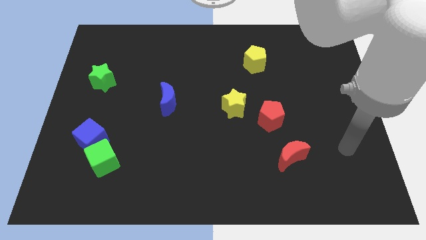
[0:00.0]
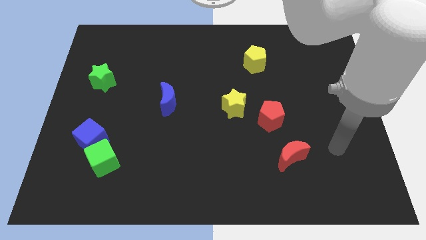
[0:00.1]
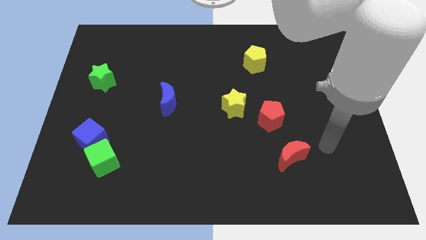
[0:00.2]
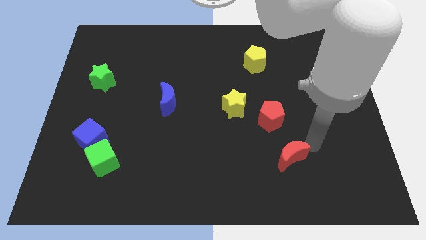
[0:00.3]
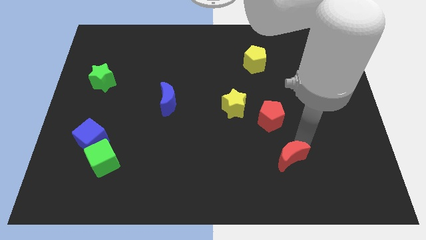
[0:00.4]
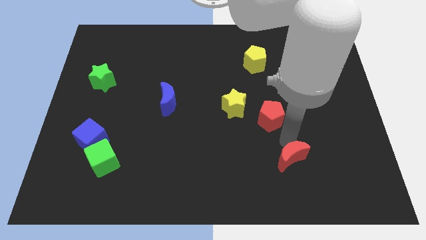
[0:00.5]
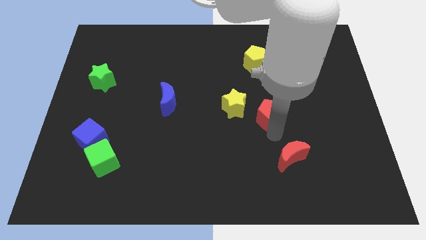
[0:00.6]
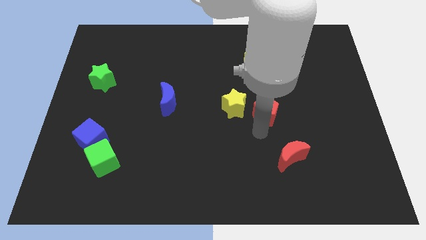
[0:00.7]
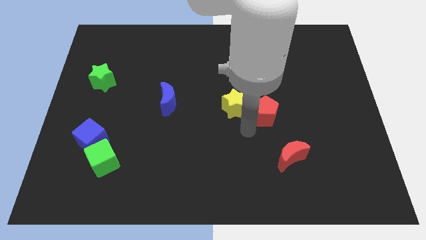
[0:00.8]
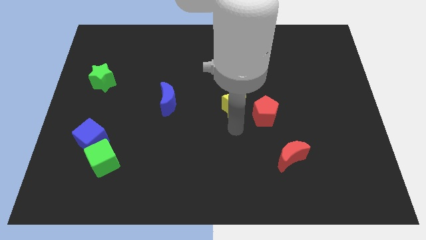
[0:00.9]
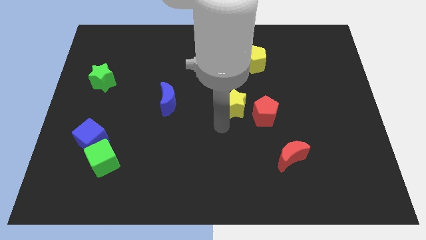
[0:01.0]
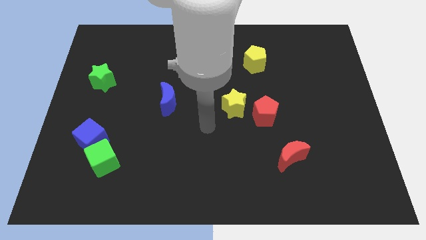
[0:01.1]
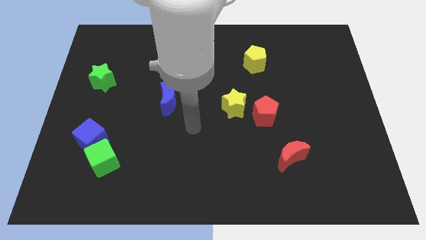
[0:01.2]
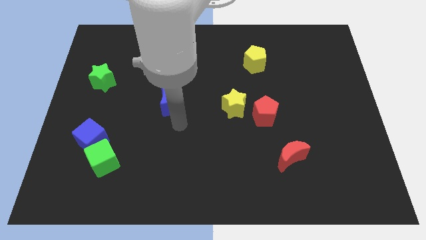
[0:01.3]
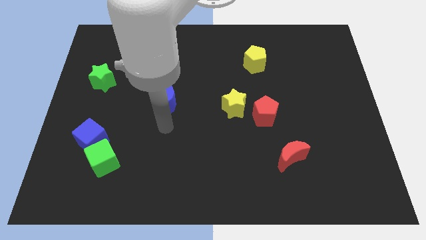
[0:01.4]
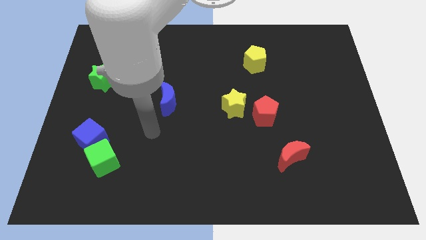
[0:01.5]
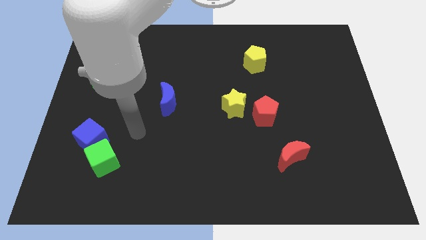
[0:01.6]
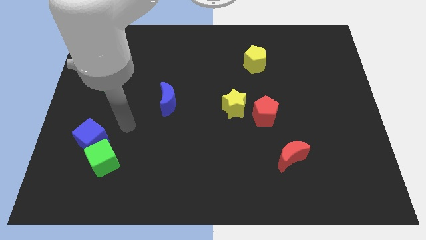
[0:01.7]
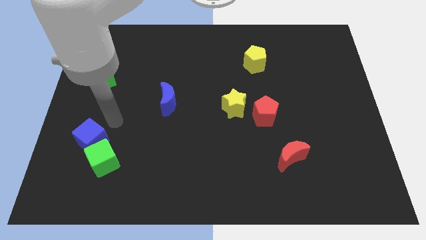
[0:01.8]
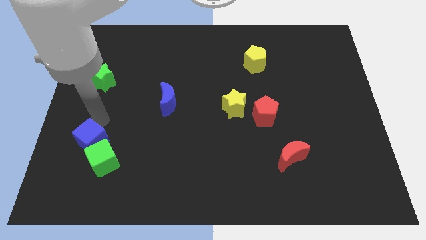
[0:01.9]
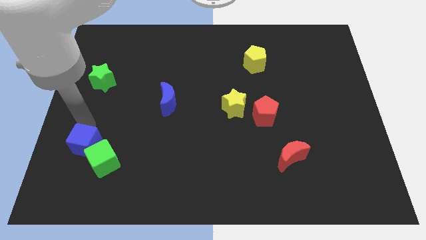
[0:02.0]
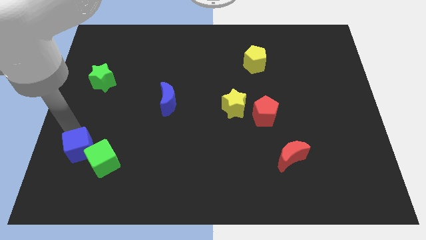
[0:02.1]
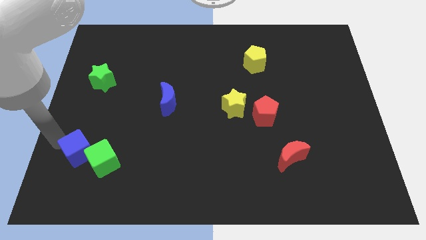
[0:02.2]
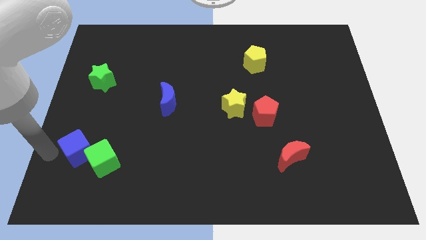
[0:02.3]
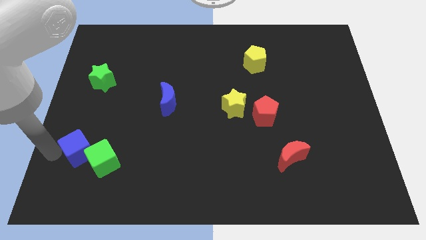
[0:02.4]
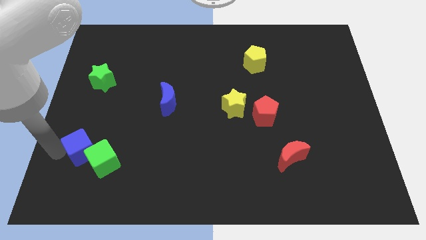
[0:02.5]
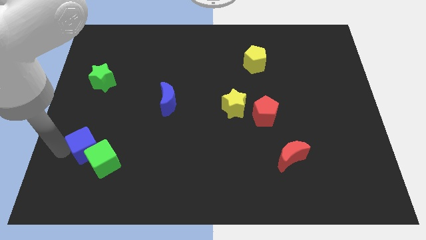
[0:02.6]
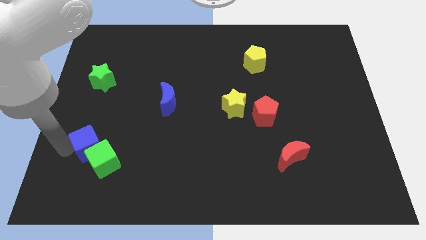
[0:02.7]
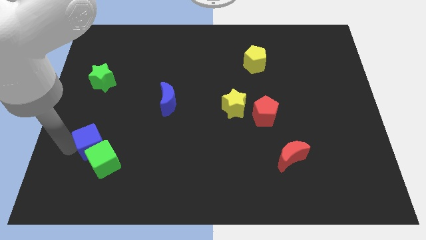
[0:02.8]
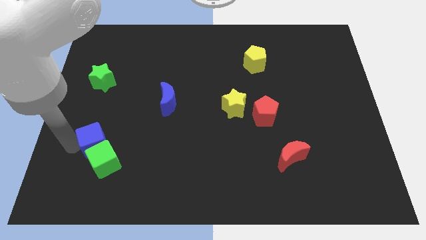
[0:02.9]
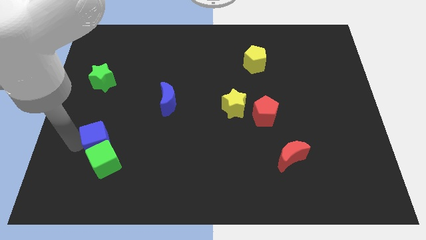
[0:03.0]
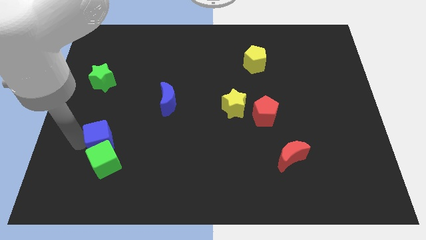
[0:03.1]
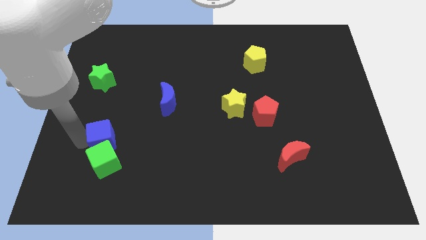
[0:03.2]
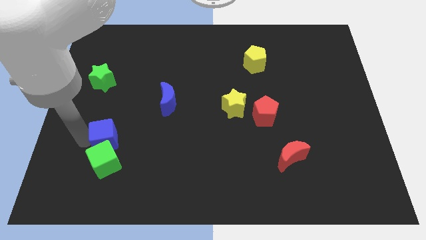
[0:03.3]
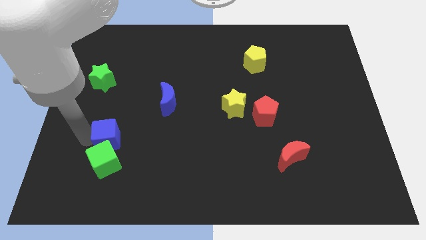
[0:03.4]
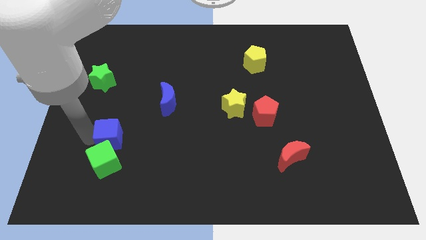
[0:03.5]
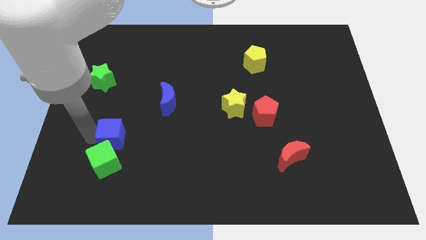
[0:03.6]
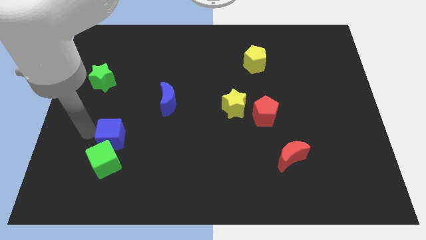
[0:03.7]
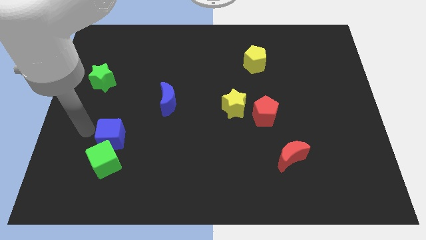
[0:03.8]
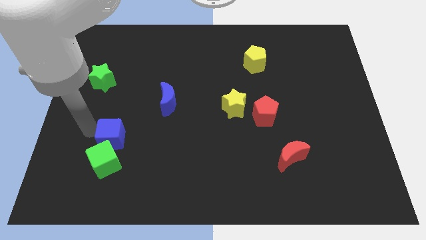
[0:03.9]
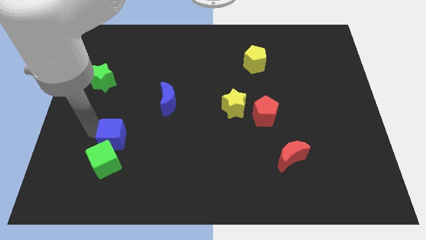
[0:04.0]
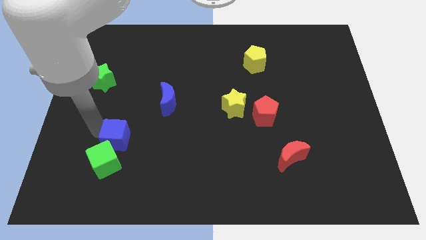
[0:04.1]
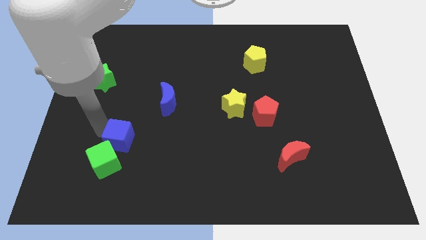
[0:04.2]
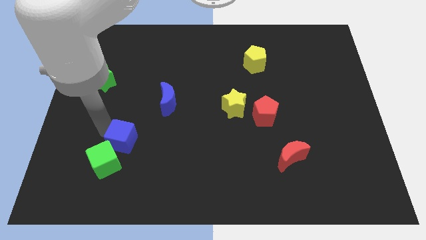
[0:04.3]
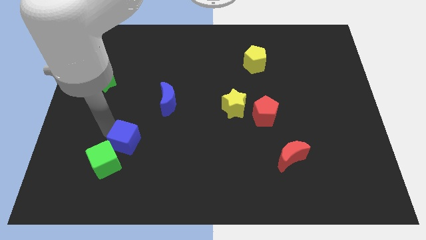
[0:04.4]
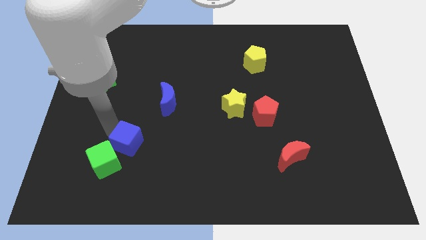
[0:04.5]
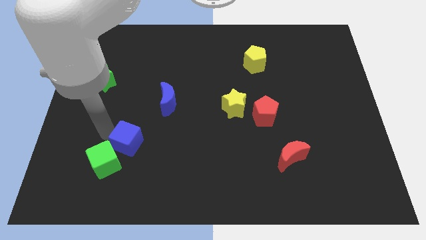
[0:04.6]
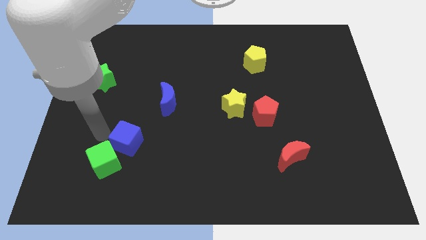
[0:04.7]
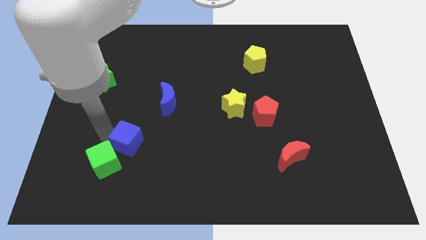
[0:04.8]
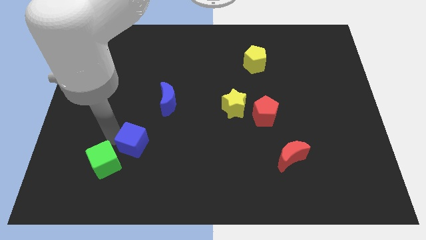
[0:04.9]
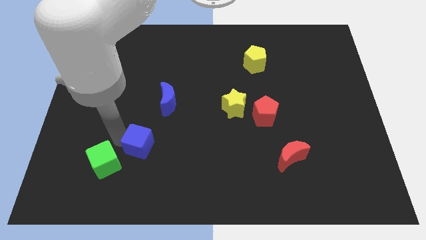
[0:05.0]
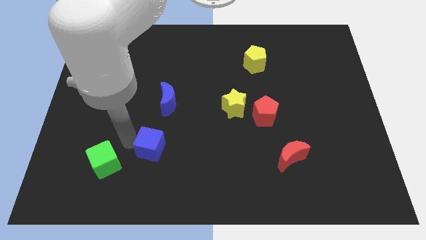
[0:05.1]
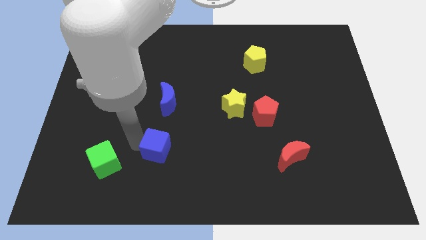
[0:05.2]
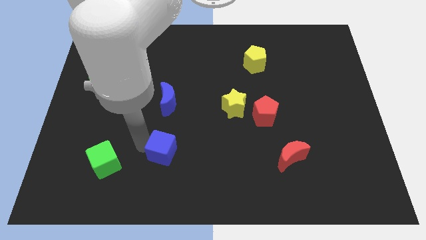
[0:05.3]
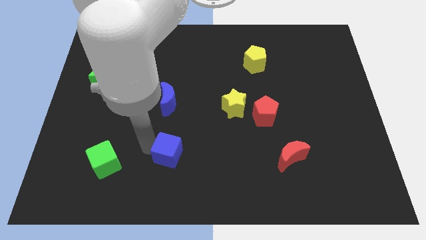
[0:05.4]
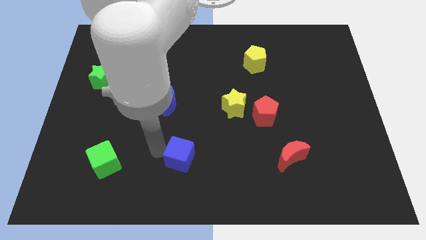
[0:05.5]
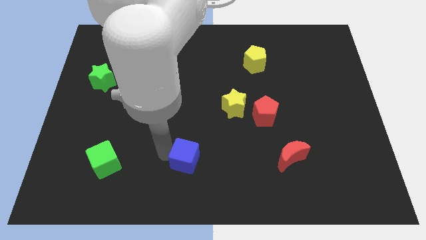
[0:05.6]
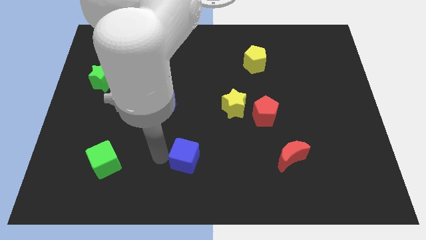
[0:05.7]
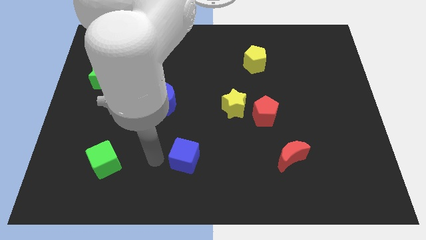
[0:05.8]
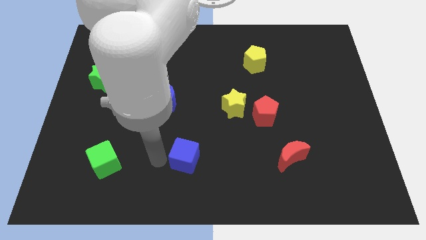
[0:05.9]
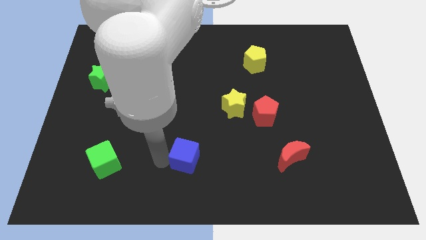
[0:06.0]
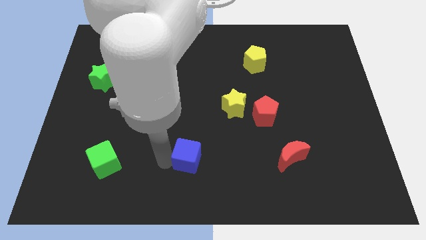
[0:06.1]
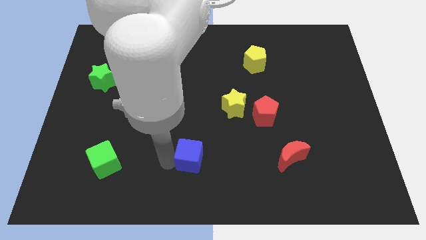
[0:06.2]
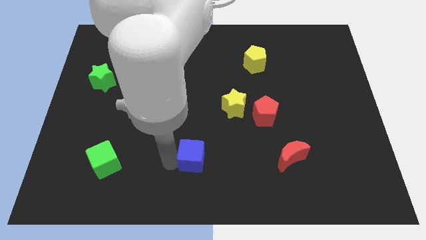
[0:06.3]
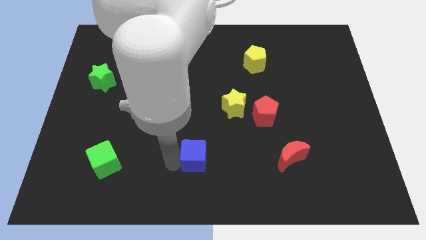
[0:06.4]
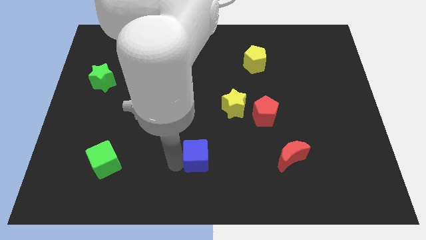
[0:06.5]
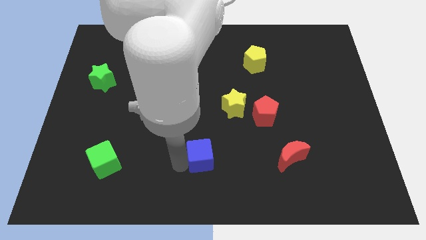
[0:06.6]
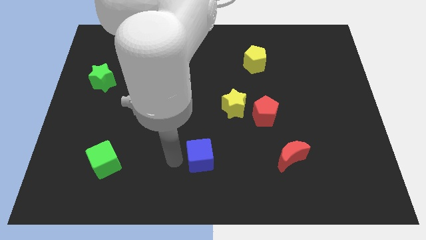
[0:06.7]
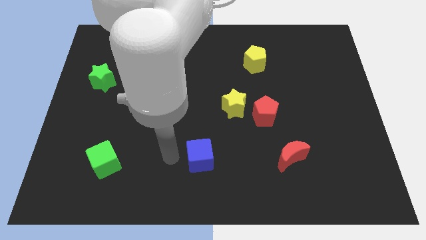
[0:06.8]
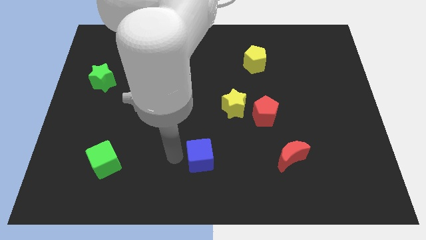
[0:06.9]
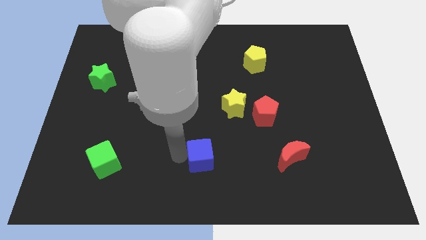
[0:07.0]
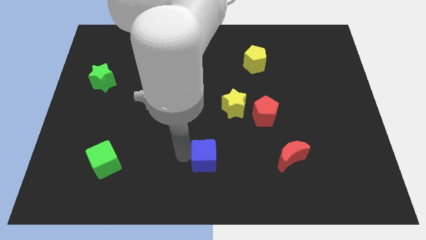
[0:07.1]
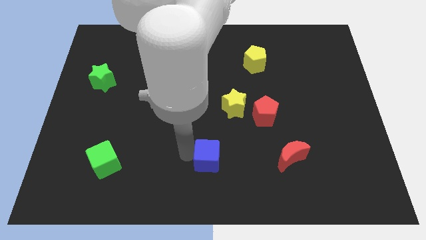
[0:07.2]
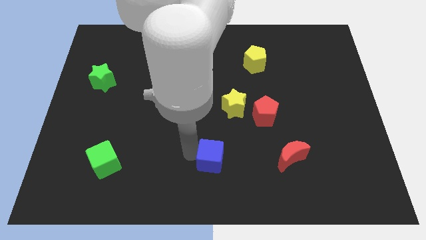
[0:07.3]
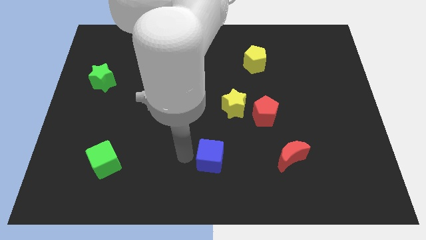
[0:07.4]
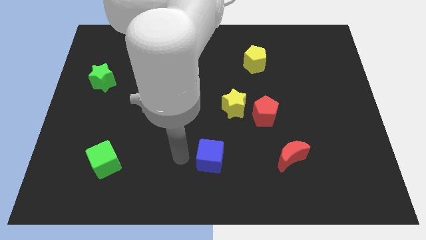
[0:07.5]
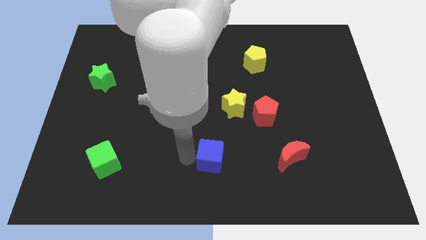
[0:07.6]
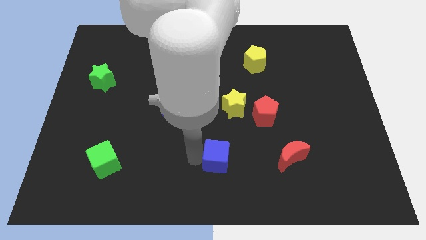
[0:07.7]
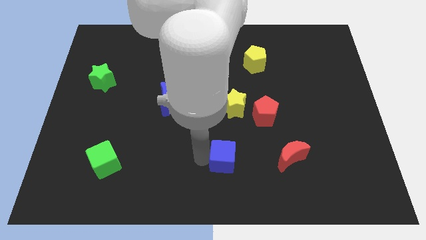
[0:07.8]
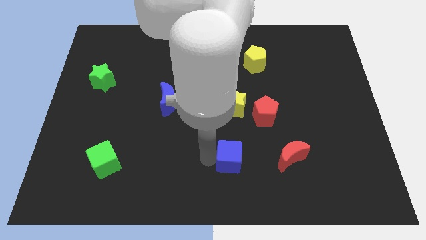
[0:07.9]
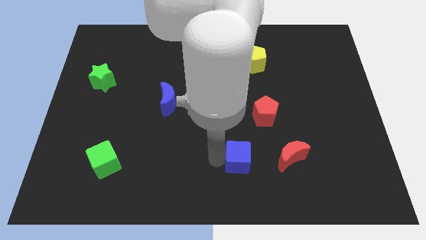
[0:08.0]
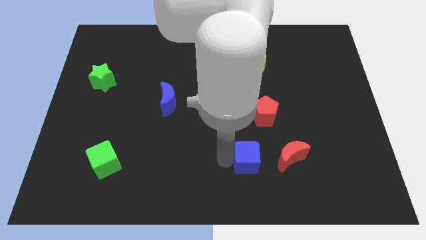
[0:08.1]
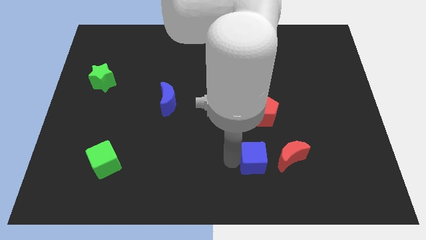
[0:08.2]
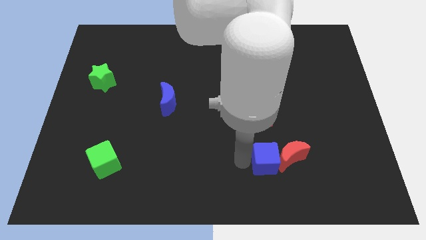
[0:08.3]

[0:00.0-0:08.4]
put the blue cube close to the red moon
